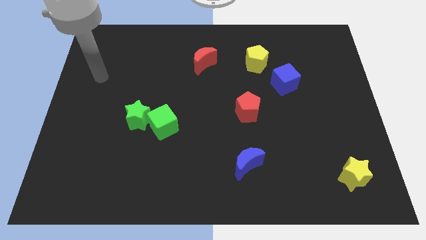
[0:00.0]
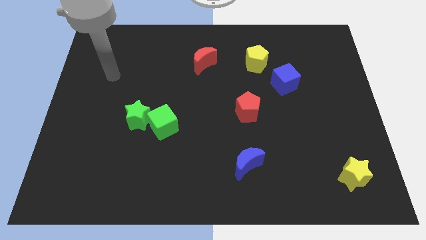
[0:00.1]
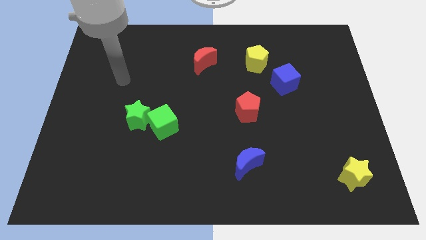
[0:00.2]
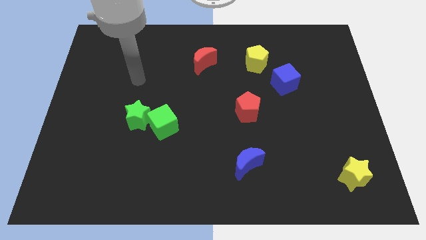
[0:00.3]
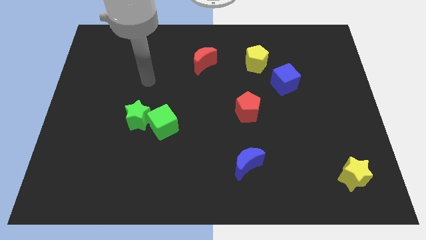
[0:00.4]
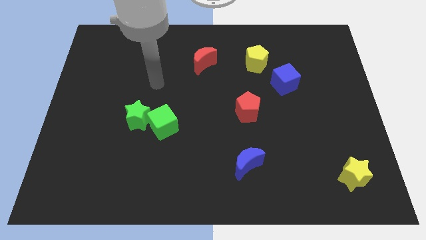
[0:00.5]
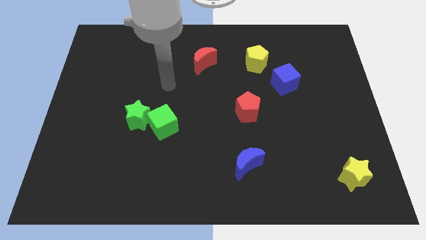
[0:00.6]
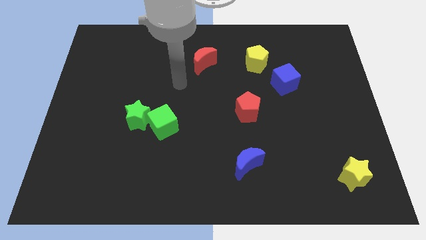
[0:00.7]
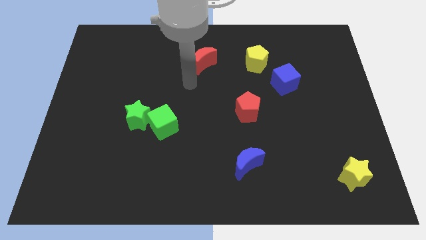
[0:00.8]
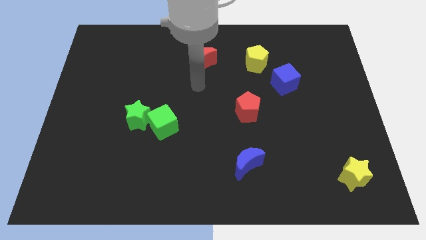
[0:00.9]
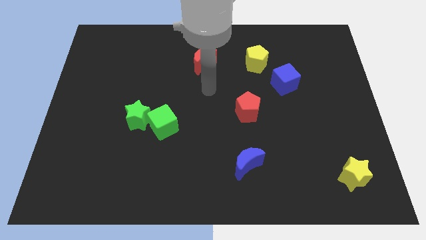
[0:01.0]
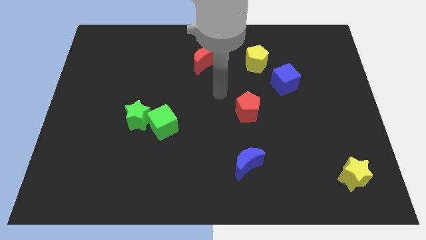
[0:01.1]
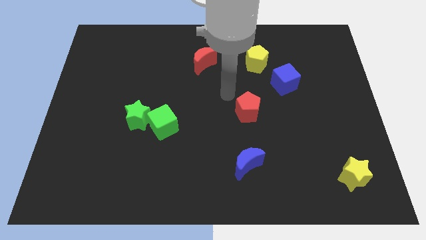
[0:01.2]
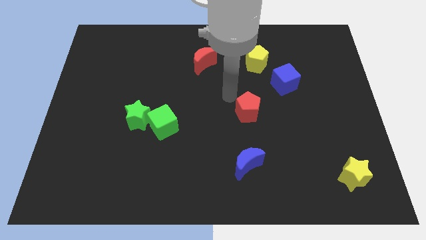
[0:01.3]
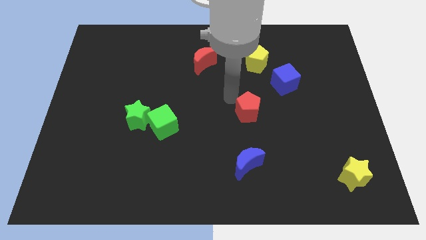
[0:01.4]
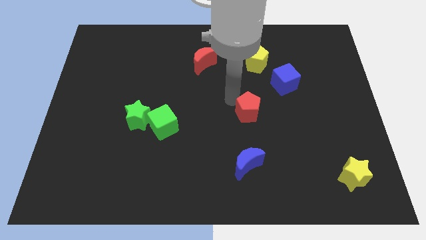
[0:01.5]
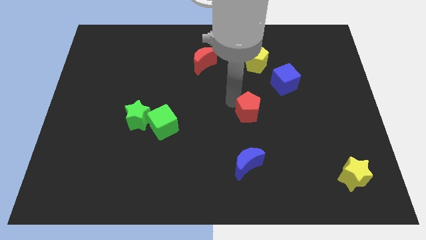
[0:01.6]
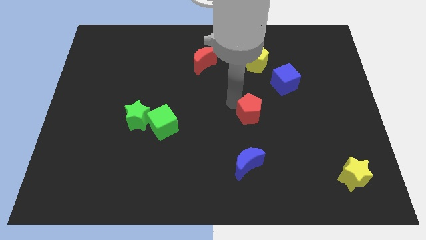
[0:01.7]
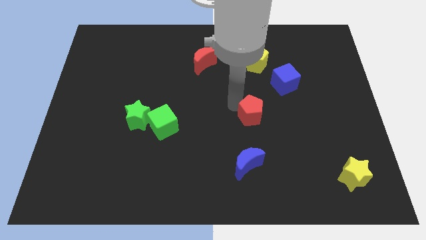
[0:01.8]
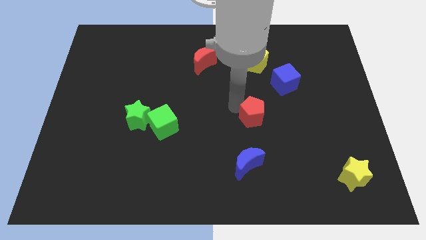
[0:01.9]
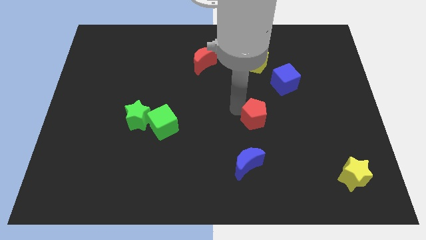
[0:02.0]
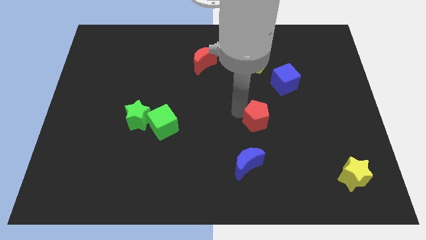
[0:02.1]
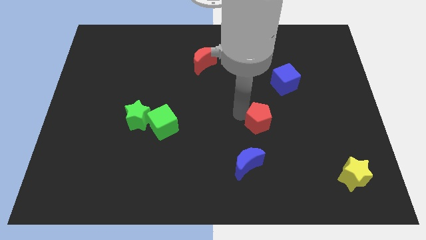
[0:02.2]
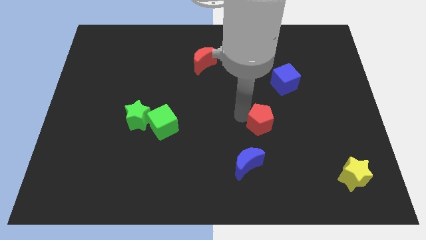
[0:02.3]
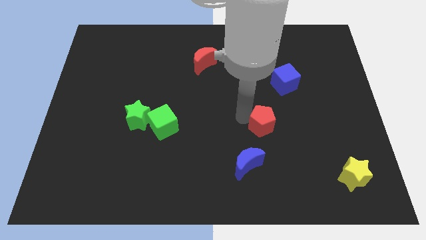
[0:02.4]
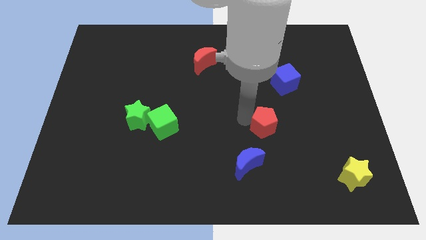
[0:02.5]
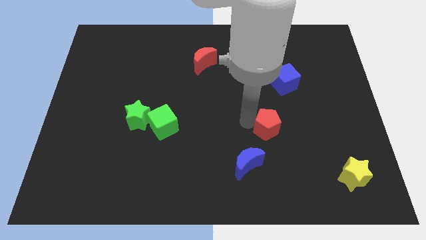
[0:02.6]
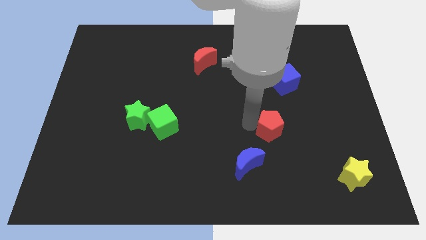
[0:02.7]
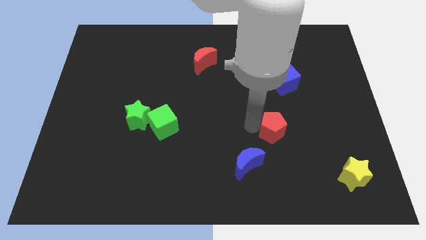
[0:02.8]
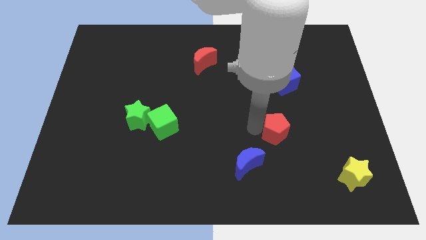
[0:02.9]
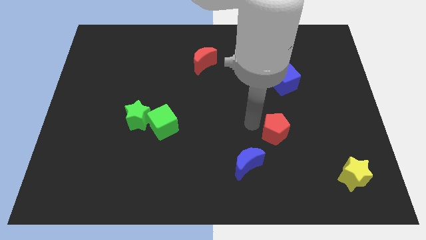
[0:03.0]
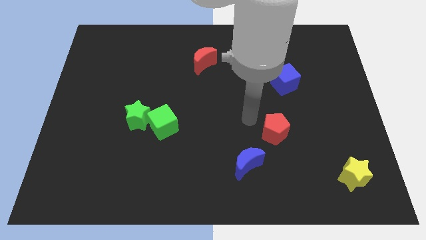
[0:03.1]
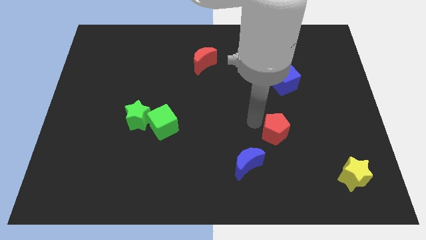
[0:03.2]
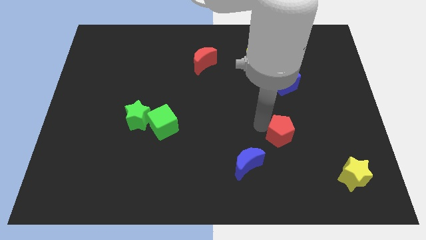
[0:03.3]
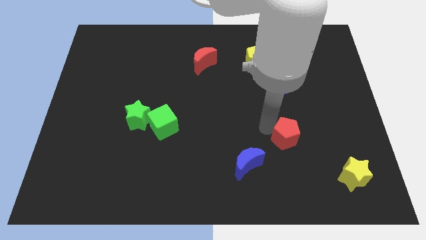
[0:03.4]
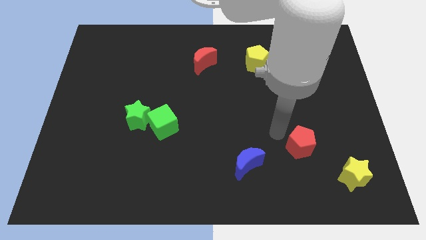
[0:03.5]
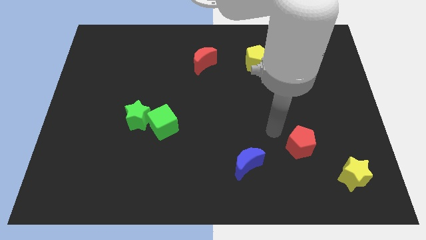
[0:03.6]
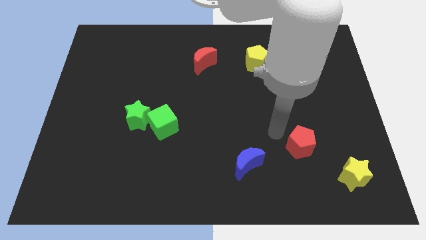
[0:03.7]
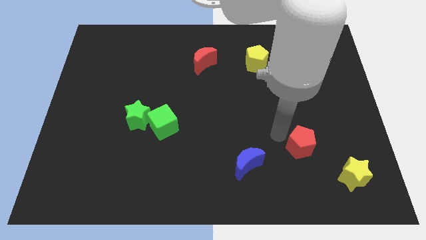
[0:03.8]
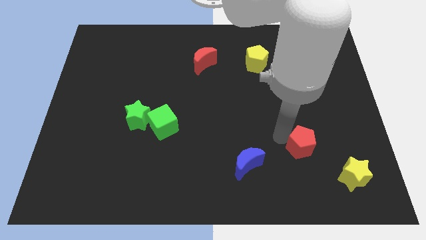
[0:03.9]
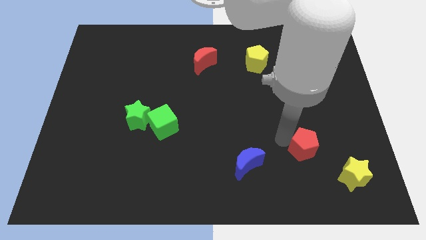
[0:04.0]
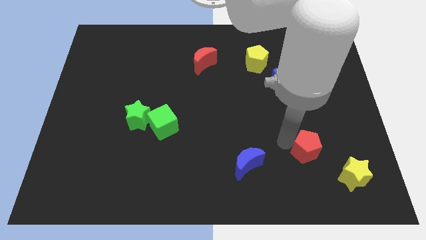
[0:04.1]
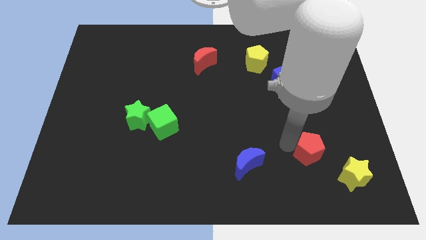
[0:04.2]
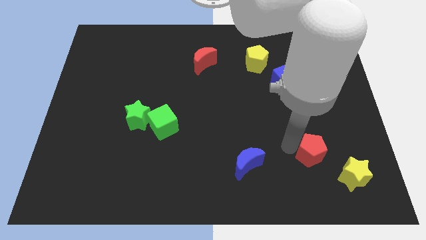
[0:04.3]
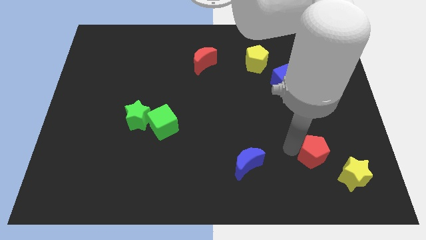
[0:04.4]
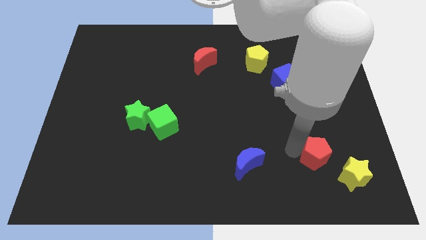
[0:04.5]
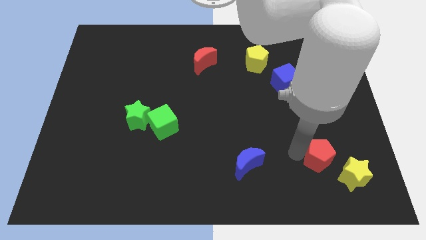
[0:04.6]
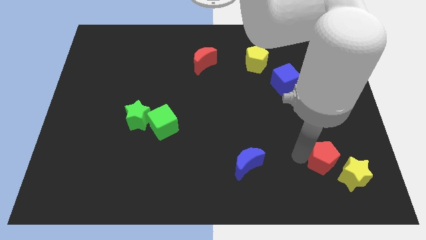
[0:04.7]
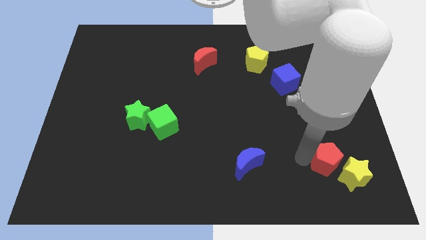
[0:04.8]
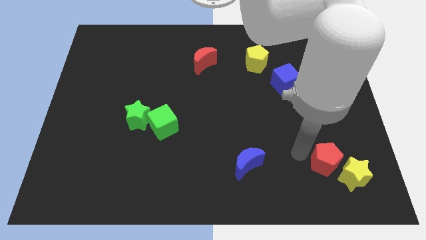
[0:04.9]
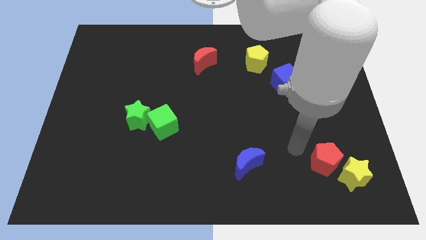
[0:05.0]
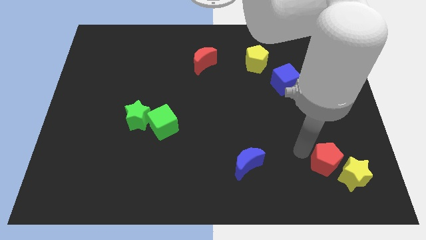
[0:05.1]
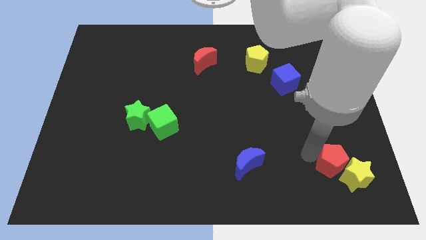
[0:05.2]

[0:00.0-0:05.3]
push the red pentagon next to the yellow star
